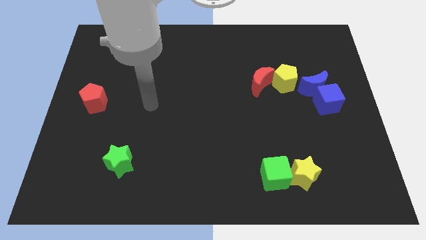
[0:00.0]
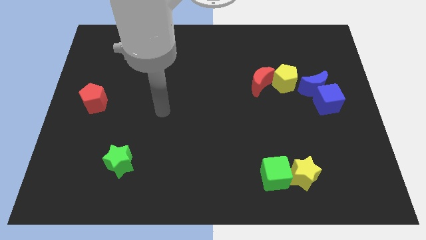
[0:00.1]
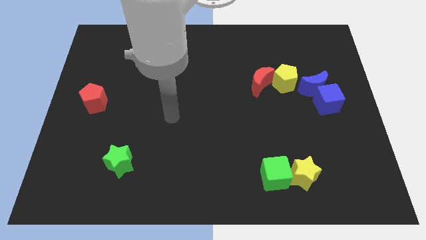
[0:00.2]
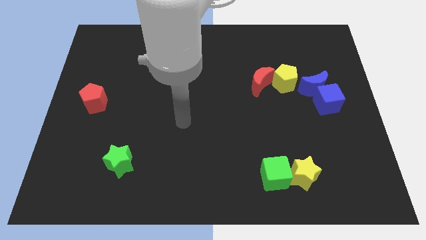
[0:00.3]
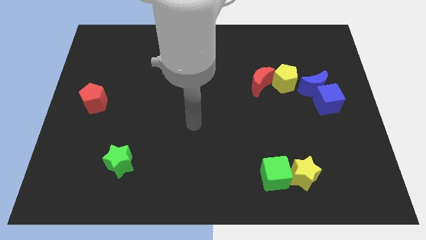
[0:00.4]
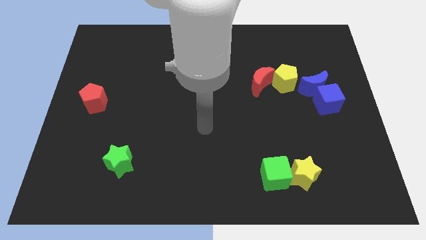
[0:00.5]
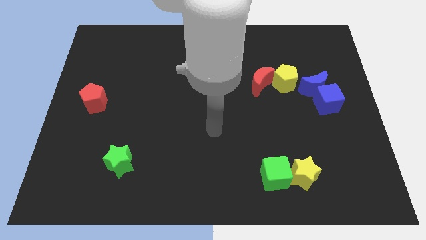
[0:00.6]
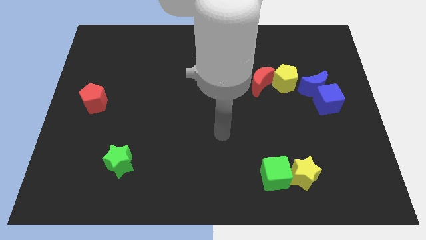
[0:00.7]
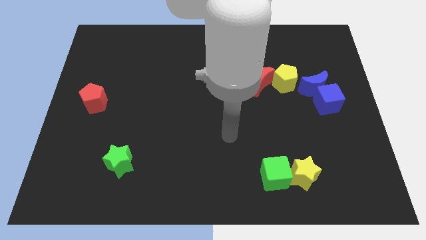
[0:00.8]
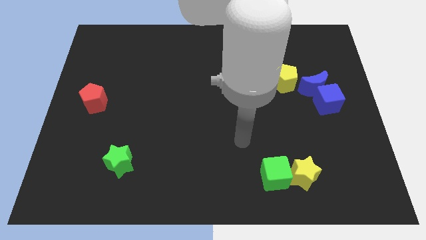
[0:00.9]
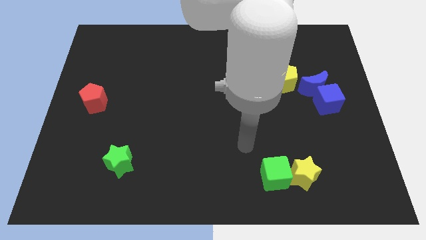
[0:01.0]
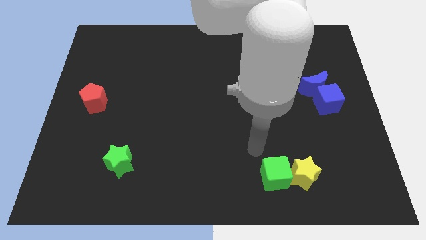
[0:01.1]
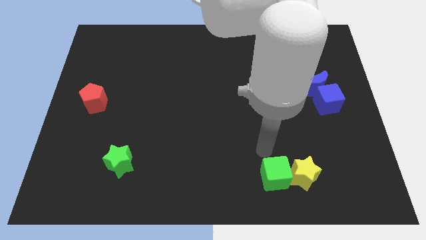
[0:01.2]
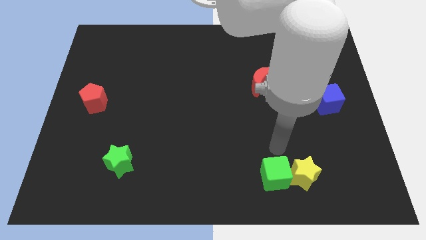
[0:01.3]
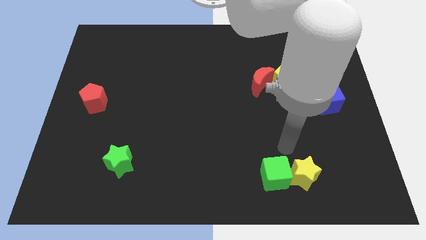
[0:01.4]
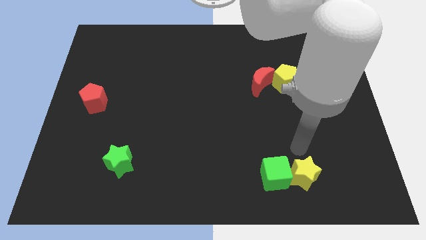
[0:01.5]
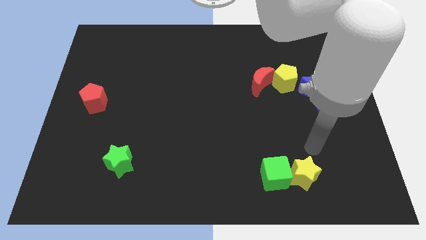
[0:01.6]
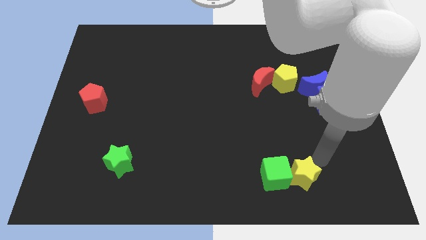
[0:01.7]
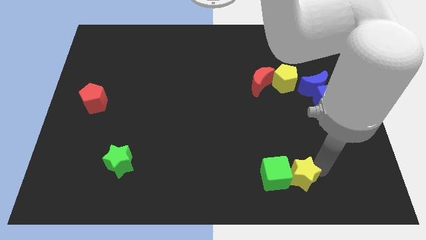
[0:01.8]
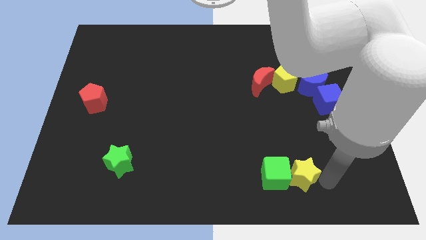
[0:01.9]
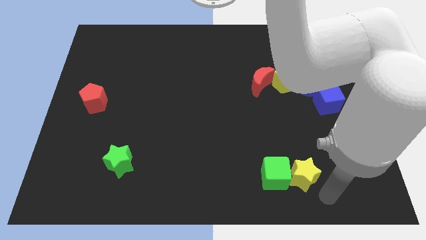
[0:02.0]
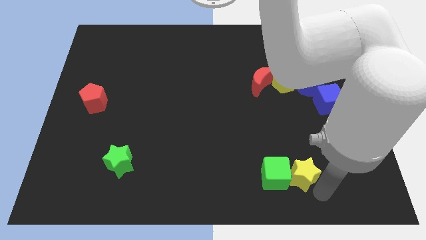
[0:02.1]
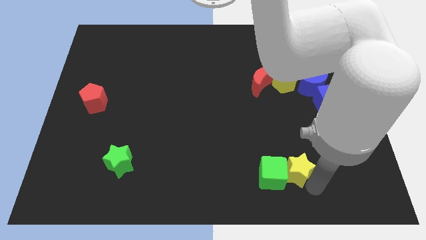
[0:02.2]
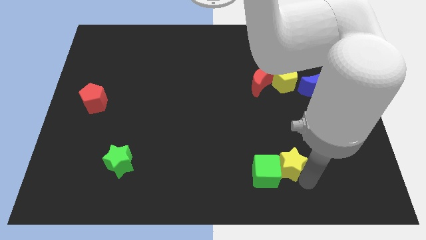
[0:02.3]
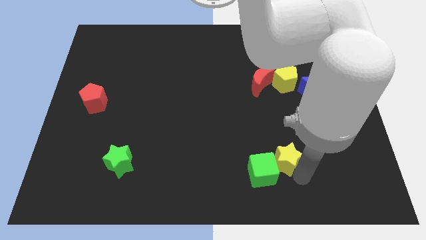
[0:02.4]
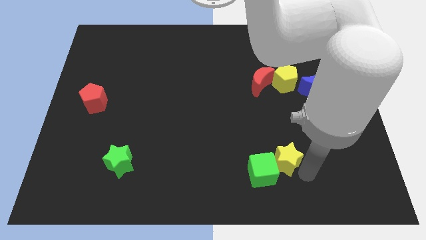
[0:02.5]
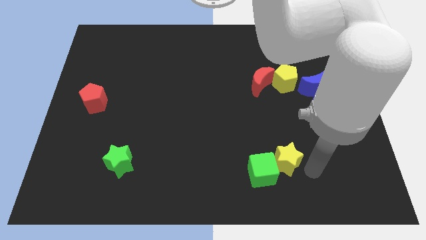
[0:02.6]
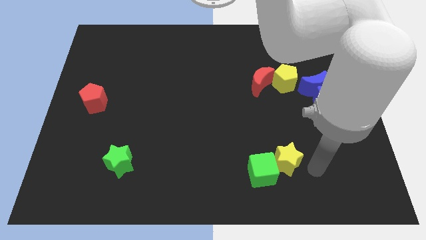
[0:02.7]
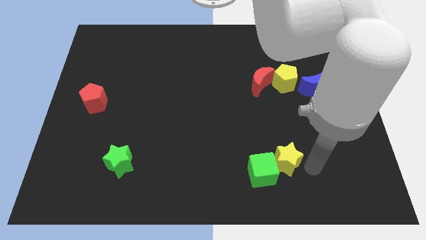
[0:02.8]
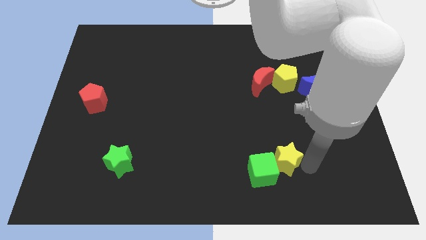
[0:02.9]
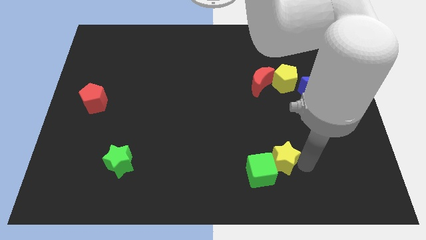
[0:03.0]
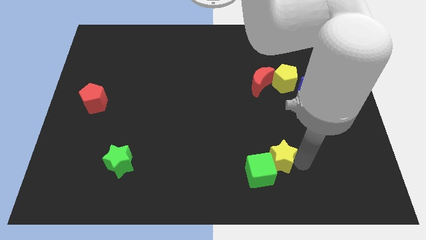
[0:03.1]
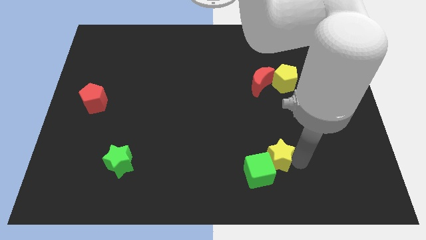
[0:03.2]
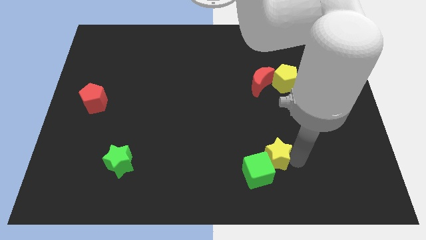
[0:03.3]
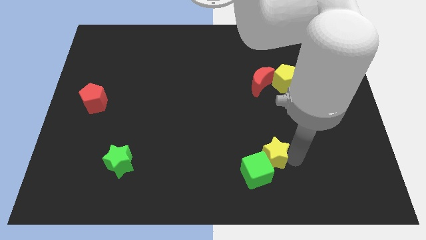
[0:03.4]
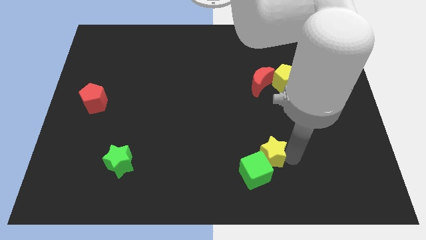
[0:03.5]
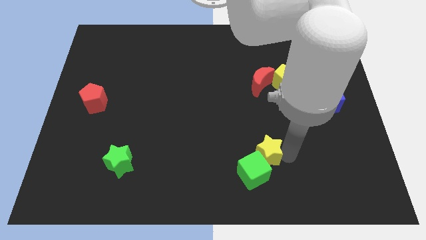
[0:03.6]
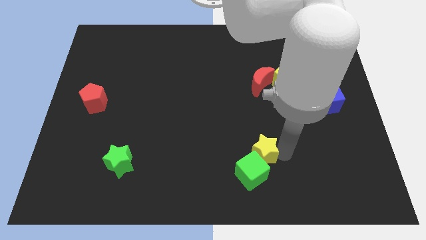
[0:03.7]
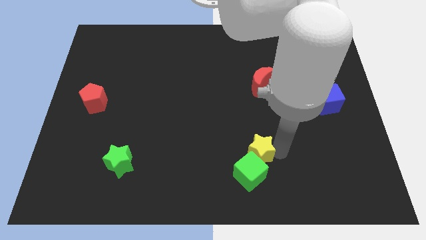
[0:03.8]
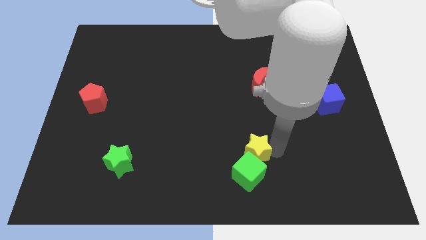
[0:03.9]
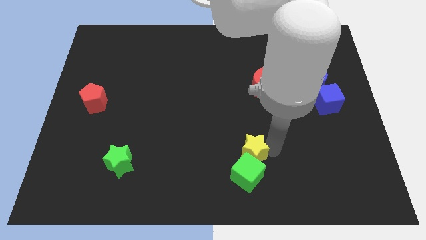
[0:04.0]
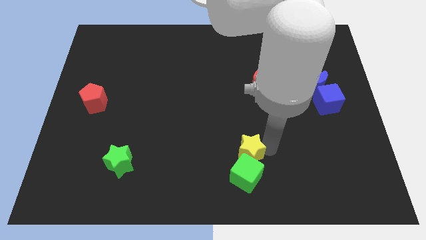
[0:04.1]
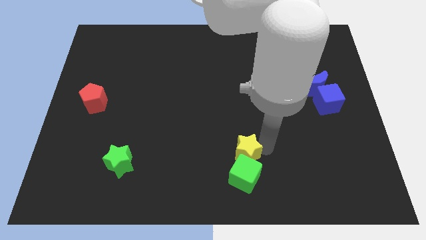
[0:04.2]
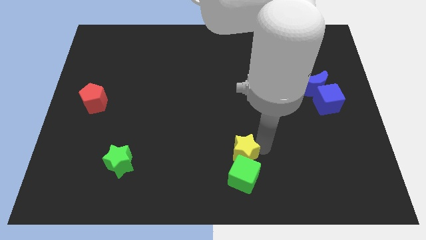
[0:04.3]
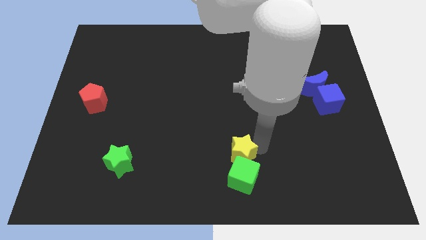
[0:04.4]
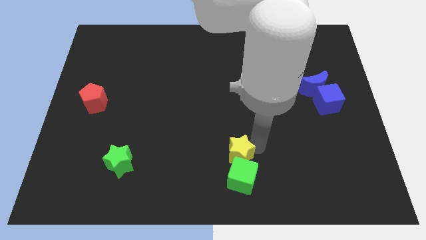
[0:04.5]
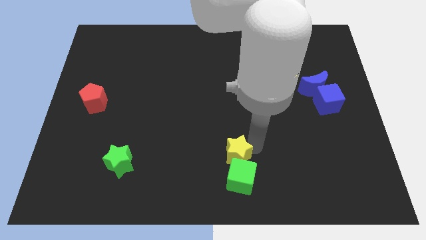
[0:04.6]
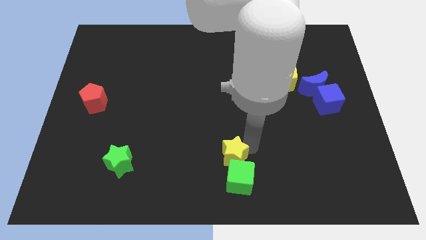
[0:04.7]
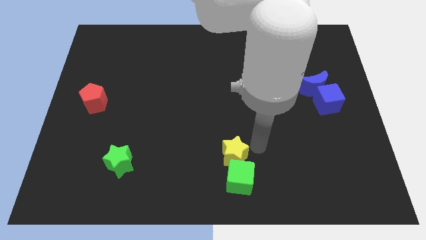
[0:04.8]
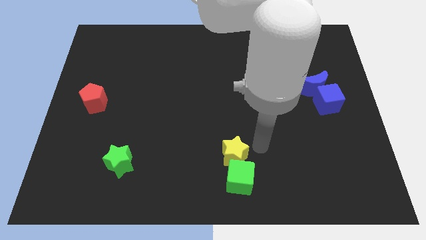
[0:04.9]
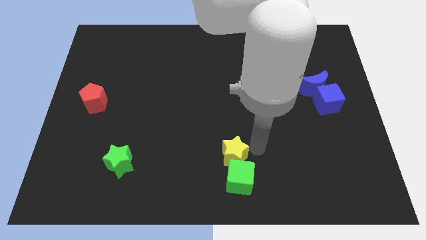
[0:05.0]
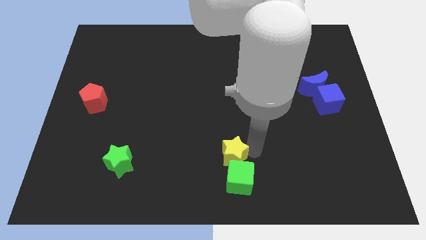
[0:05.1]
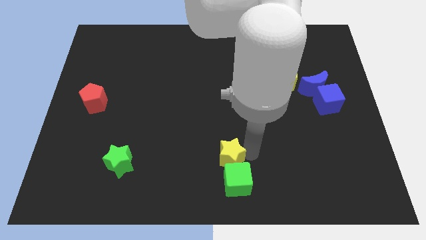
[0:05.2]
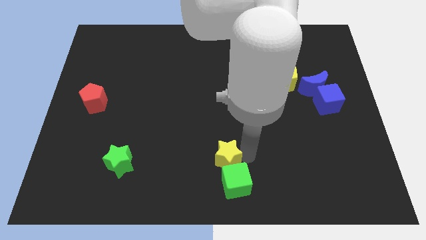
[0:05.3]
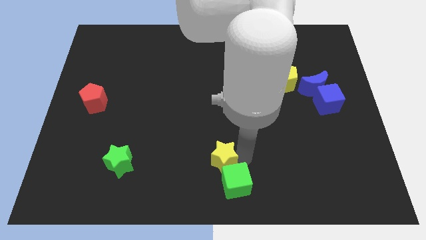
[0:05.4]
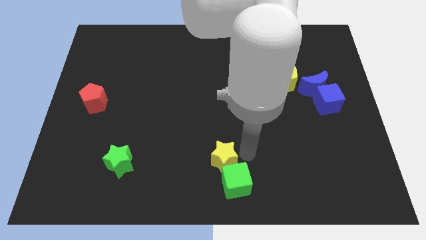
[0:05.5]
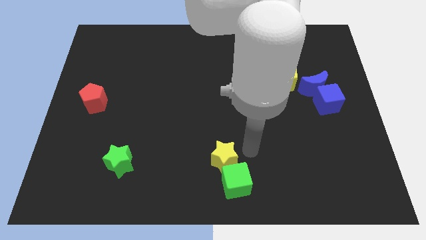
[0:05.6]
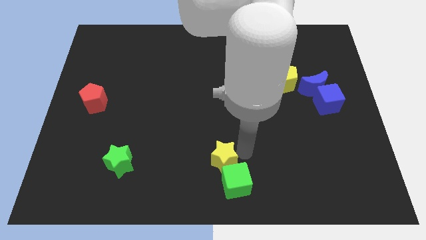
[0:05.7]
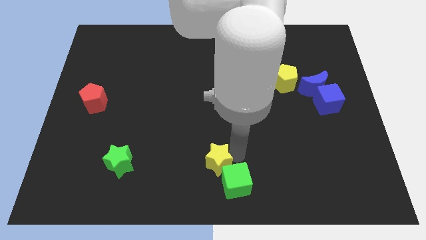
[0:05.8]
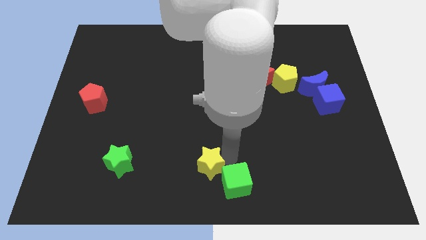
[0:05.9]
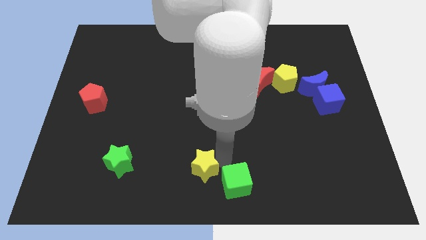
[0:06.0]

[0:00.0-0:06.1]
move the yellow star to the left

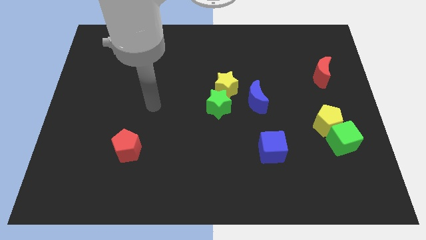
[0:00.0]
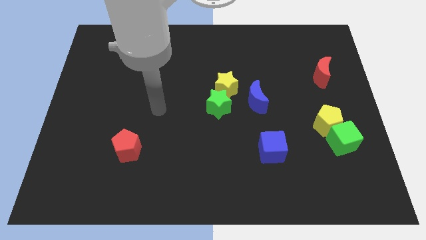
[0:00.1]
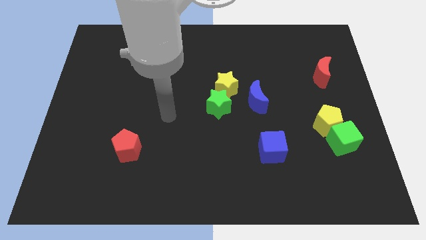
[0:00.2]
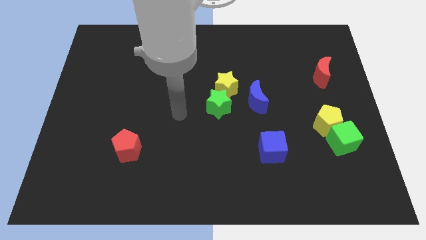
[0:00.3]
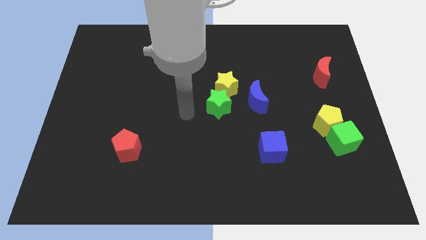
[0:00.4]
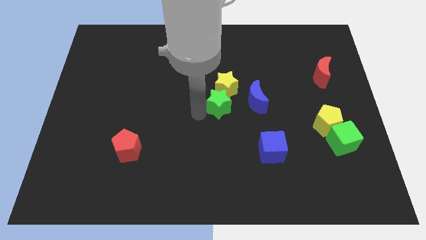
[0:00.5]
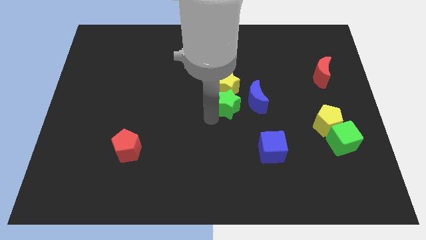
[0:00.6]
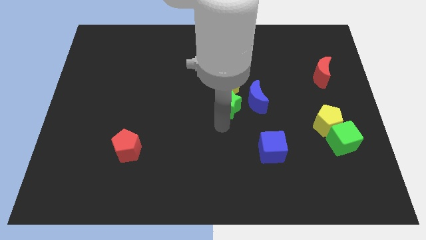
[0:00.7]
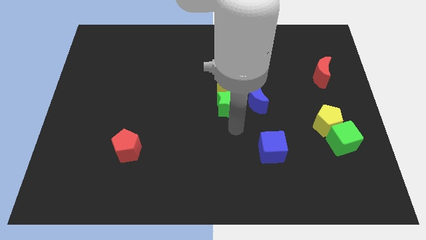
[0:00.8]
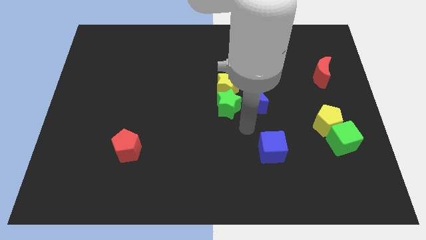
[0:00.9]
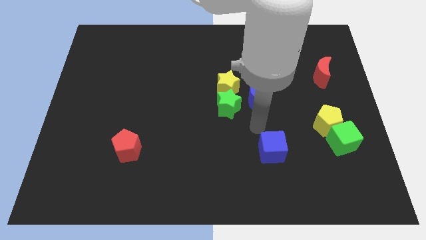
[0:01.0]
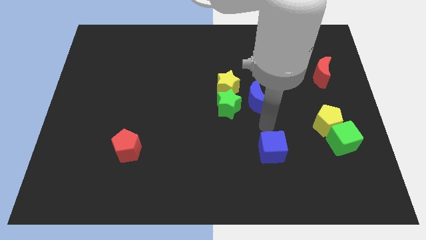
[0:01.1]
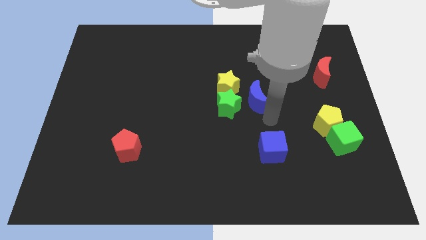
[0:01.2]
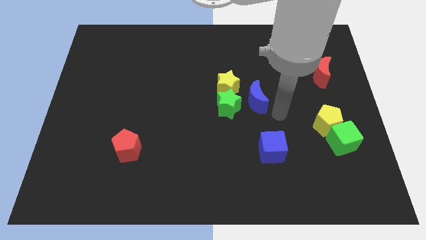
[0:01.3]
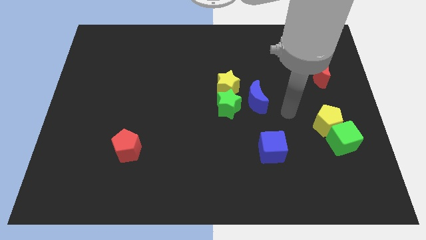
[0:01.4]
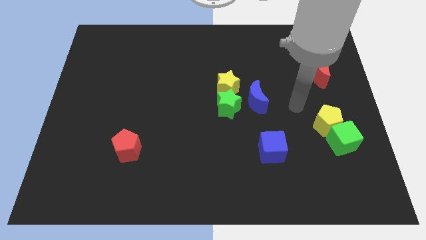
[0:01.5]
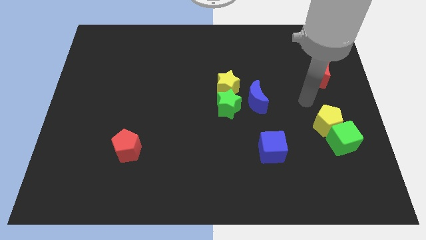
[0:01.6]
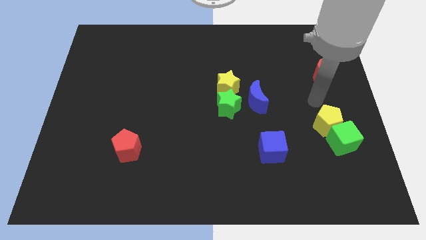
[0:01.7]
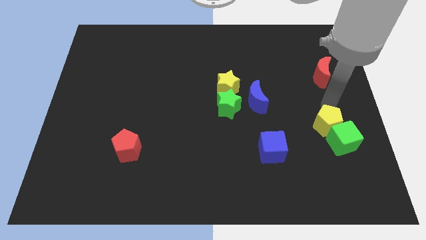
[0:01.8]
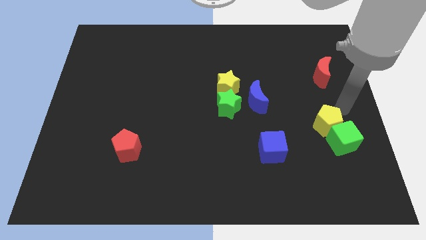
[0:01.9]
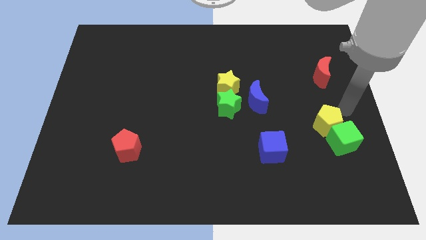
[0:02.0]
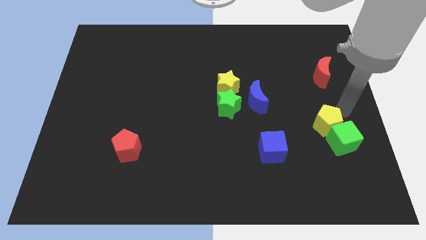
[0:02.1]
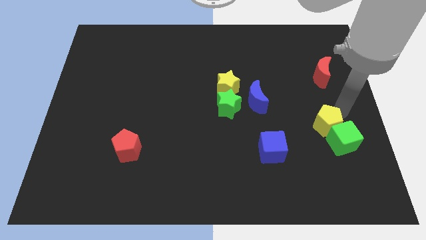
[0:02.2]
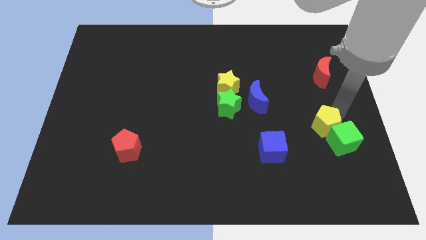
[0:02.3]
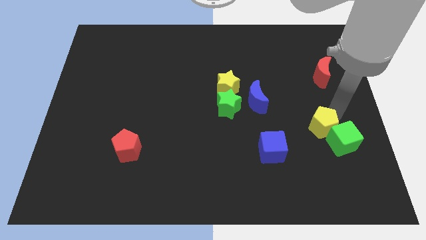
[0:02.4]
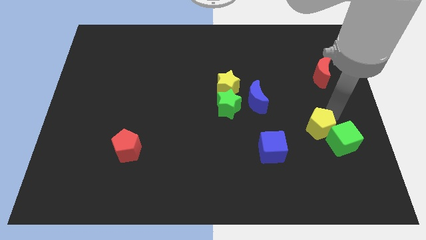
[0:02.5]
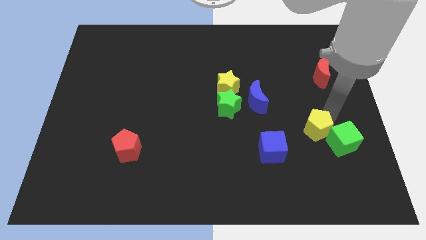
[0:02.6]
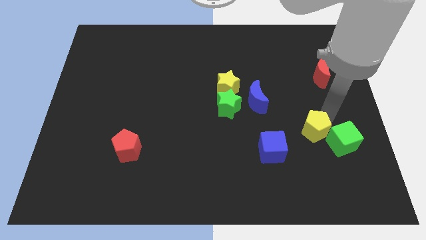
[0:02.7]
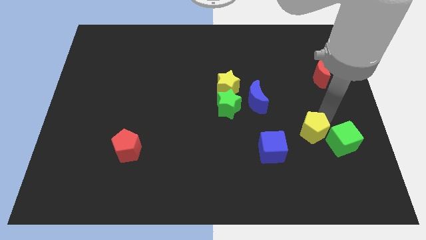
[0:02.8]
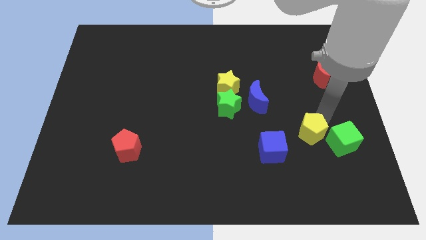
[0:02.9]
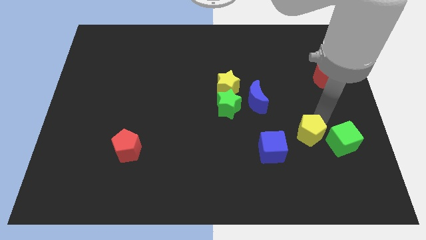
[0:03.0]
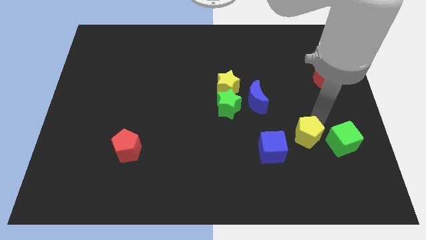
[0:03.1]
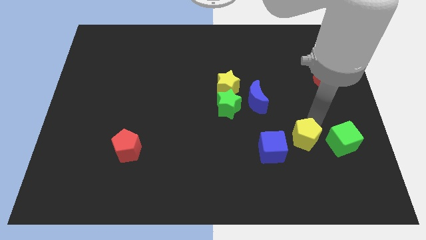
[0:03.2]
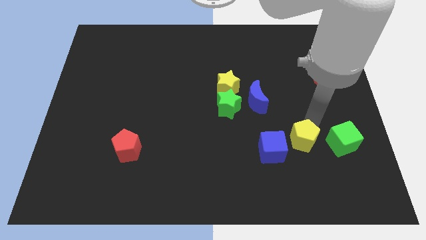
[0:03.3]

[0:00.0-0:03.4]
move the yellow pentagon somewhat downwards and to the left diagonally
